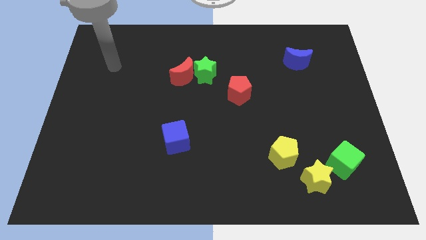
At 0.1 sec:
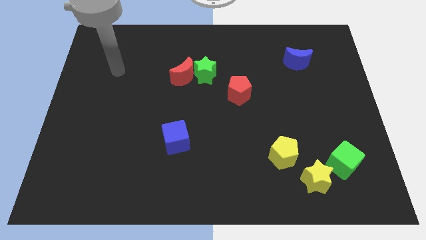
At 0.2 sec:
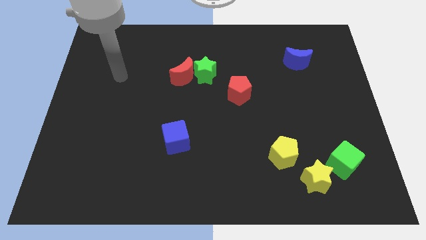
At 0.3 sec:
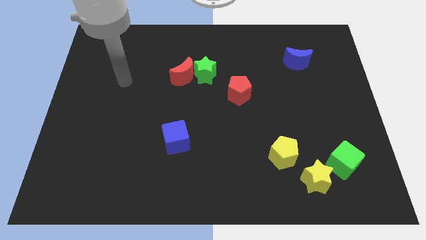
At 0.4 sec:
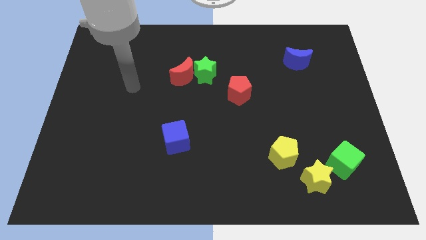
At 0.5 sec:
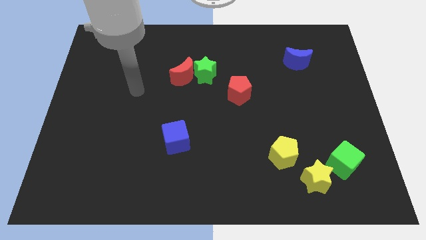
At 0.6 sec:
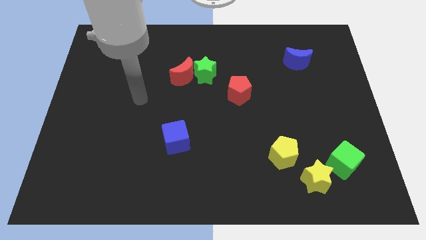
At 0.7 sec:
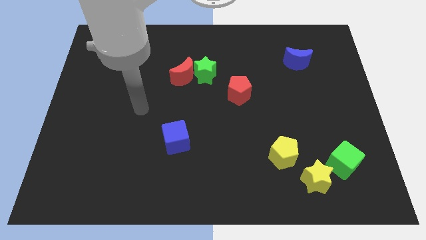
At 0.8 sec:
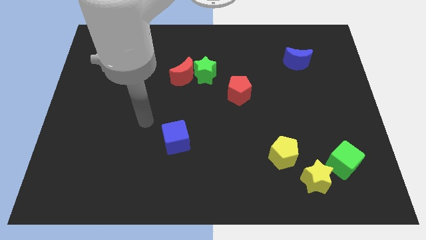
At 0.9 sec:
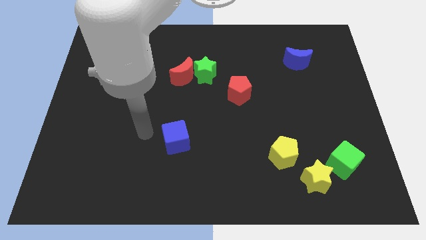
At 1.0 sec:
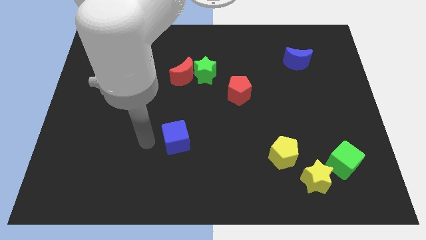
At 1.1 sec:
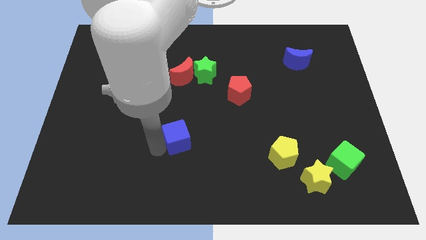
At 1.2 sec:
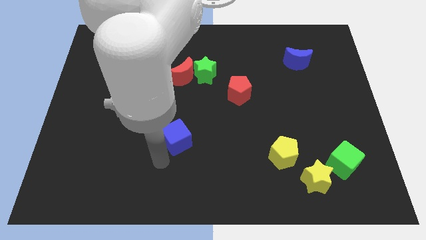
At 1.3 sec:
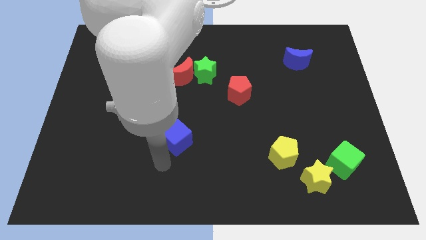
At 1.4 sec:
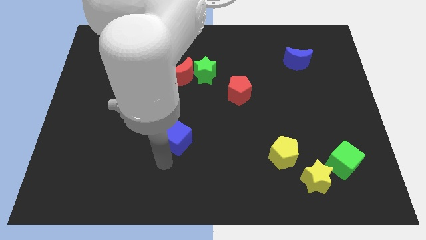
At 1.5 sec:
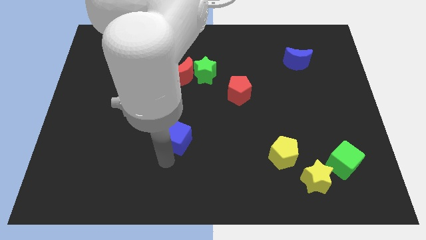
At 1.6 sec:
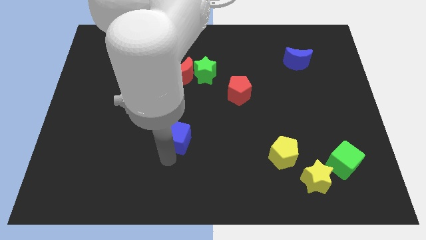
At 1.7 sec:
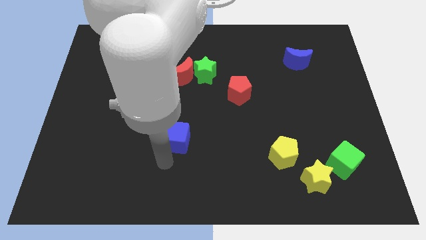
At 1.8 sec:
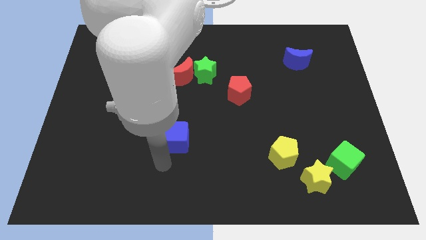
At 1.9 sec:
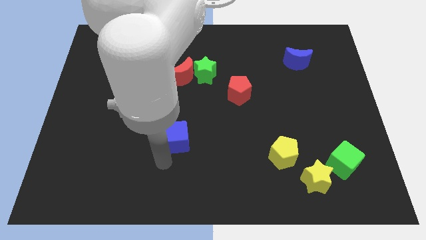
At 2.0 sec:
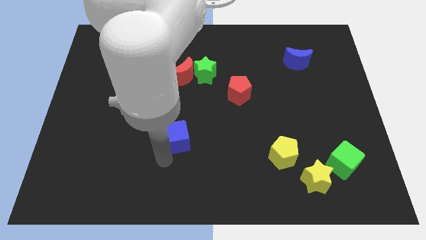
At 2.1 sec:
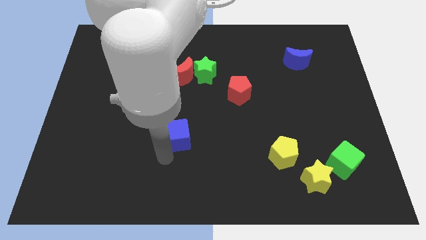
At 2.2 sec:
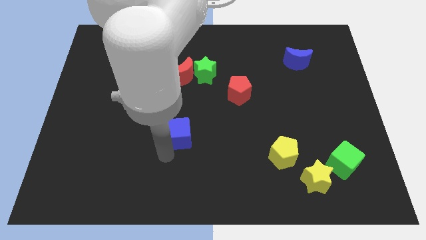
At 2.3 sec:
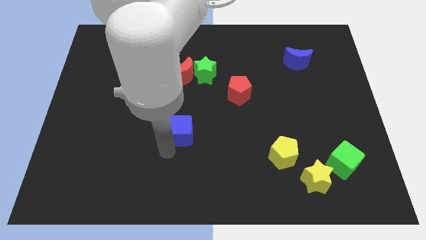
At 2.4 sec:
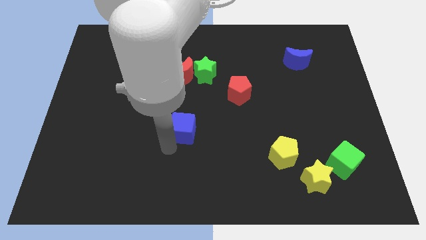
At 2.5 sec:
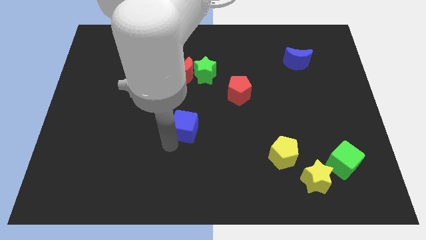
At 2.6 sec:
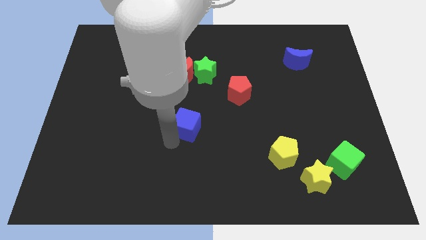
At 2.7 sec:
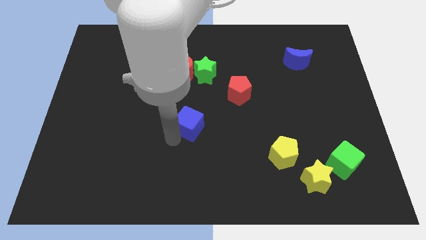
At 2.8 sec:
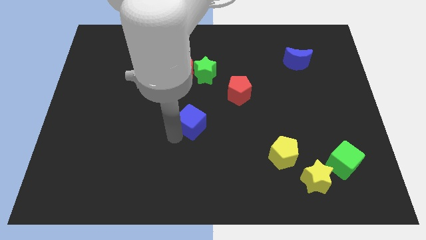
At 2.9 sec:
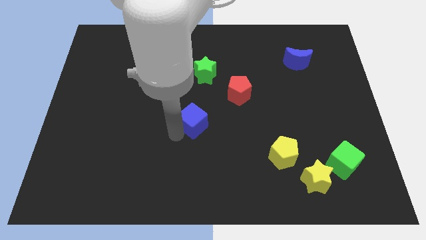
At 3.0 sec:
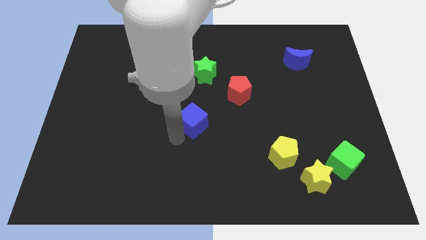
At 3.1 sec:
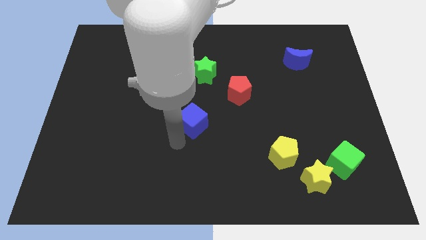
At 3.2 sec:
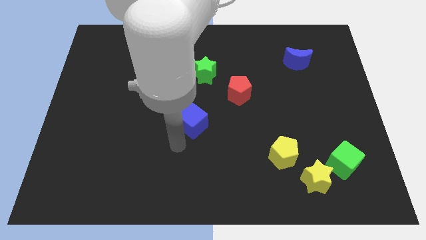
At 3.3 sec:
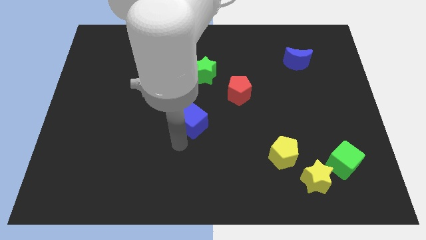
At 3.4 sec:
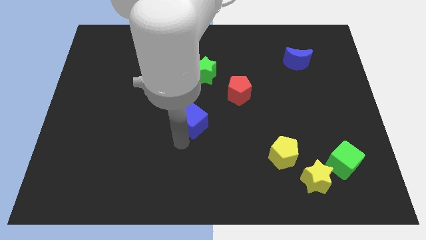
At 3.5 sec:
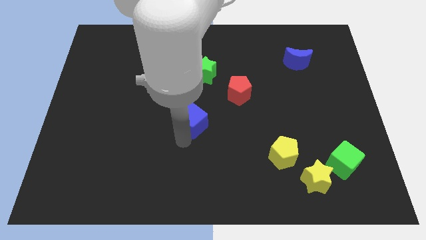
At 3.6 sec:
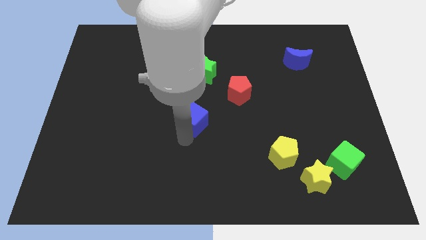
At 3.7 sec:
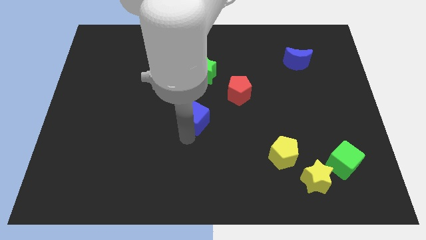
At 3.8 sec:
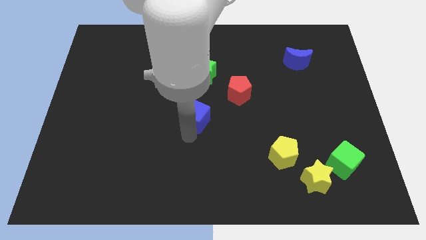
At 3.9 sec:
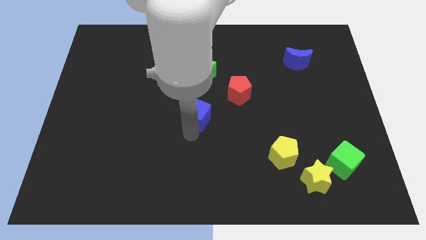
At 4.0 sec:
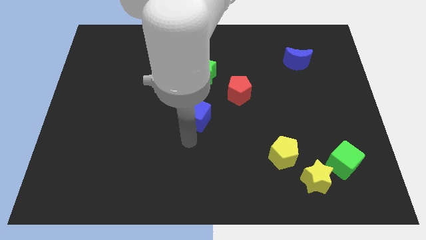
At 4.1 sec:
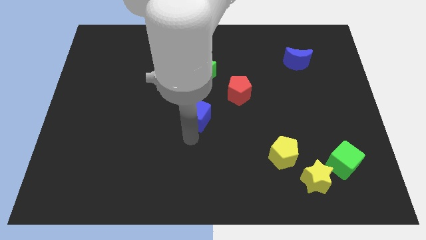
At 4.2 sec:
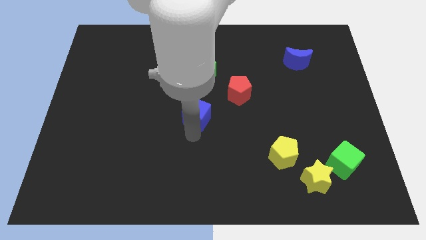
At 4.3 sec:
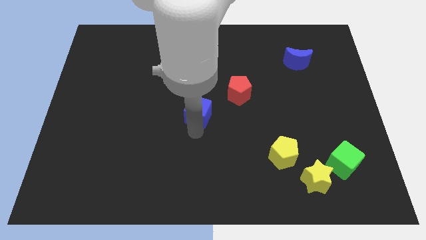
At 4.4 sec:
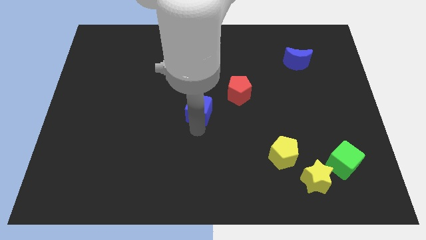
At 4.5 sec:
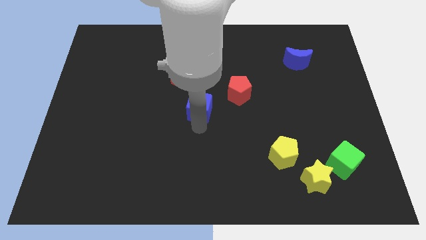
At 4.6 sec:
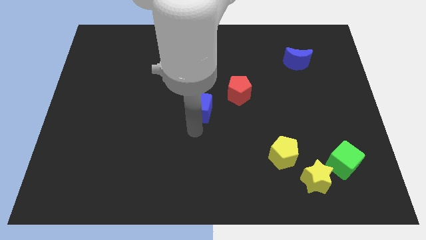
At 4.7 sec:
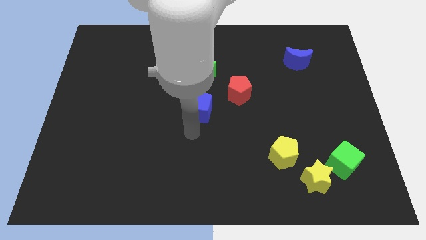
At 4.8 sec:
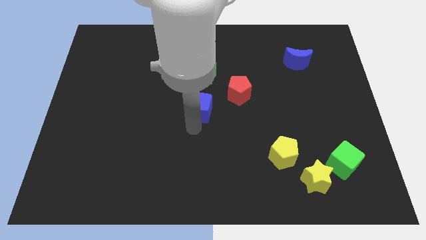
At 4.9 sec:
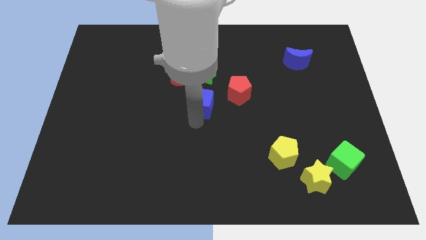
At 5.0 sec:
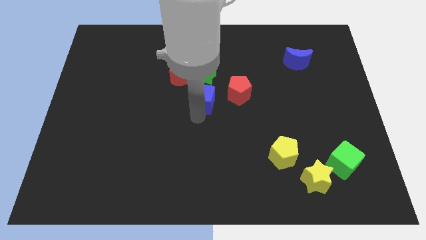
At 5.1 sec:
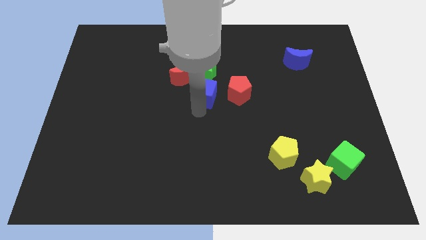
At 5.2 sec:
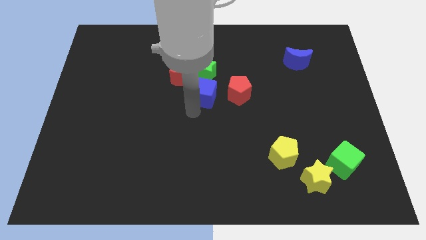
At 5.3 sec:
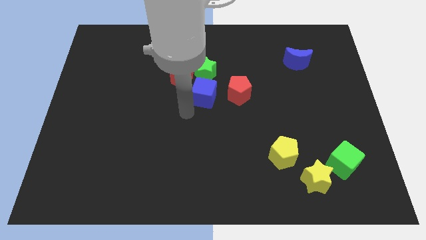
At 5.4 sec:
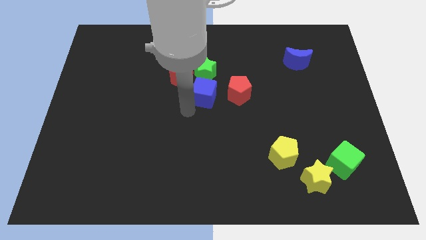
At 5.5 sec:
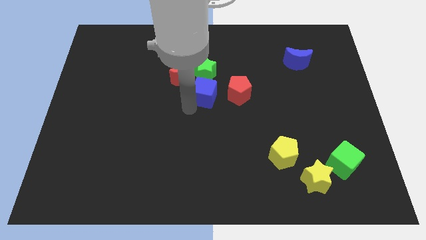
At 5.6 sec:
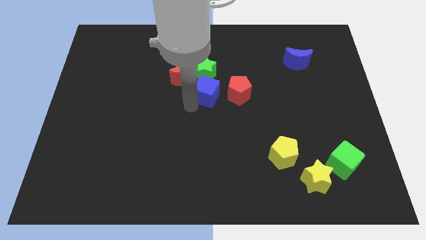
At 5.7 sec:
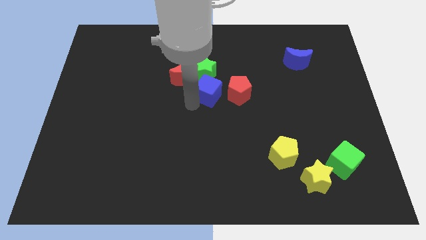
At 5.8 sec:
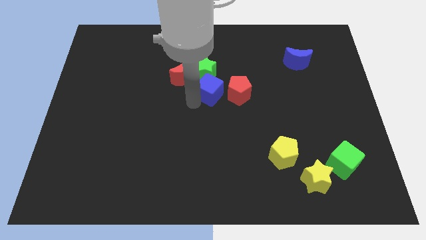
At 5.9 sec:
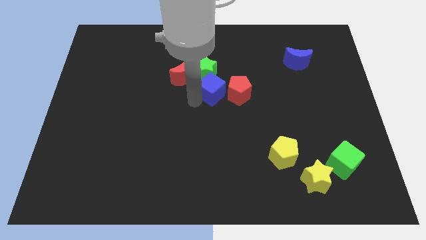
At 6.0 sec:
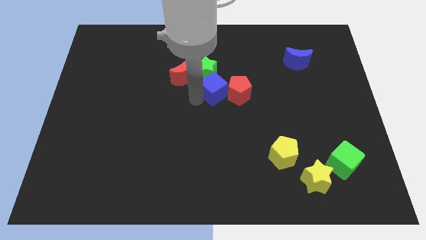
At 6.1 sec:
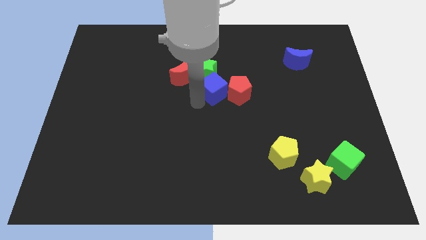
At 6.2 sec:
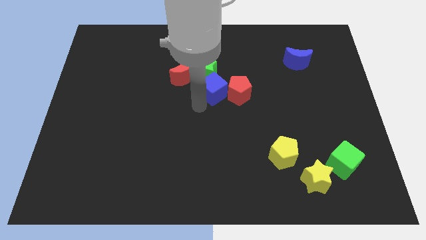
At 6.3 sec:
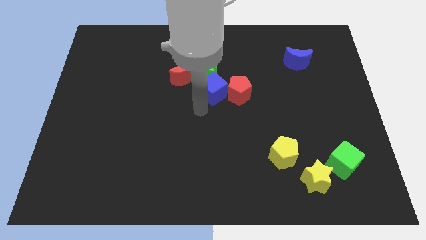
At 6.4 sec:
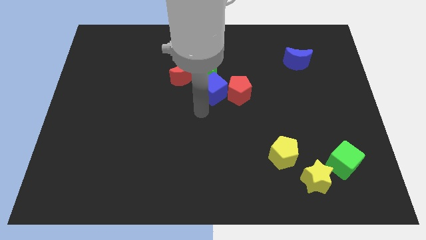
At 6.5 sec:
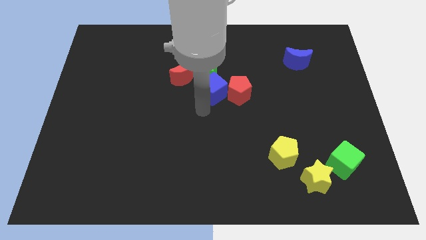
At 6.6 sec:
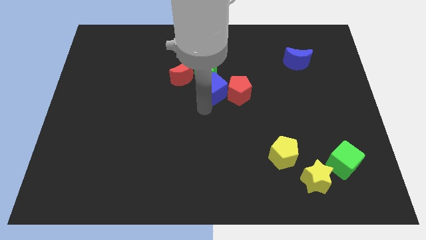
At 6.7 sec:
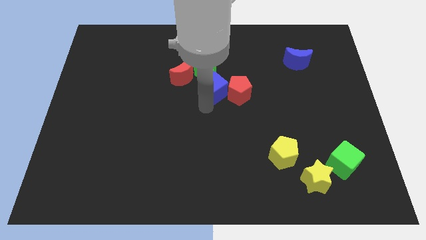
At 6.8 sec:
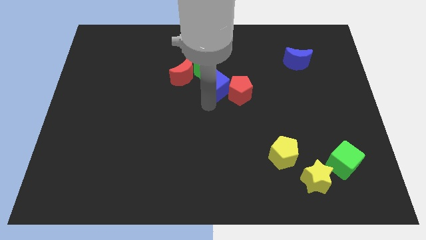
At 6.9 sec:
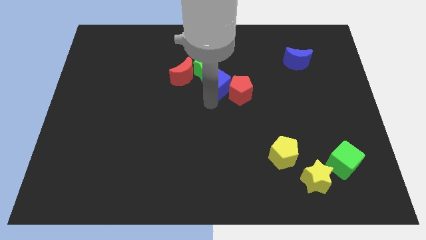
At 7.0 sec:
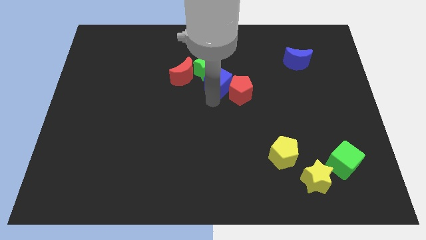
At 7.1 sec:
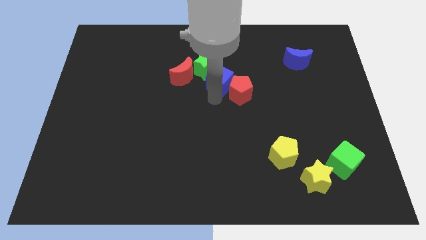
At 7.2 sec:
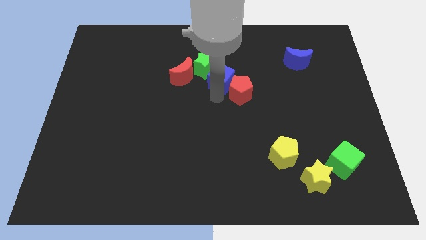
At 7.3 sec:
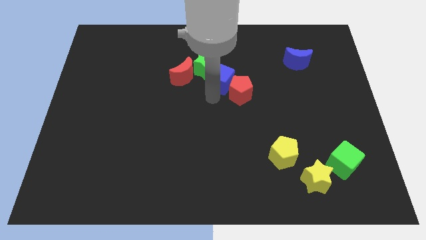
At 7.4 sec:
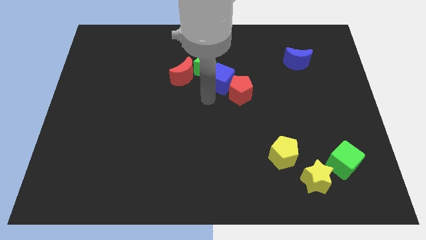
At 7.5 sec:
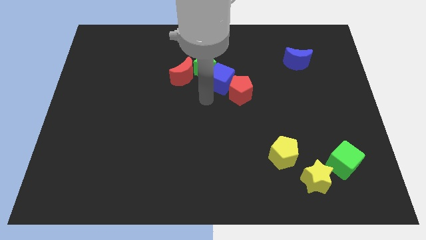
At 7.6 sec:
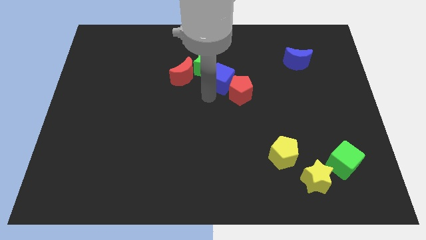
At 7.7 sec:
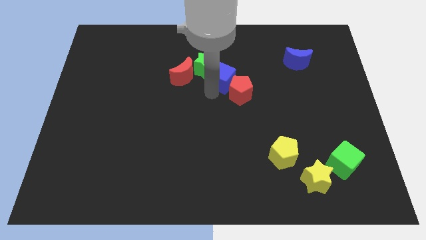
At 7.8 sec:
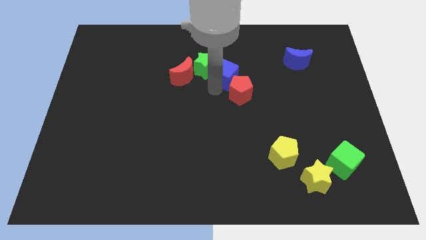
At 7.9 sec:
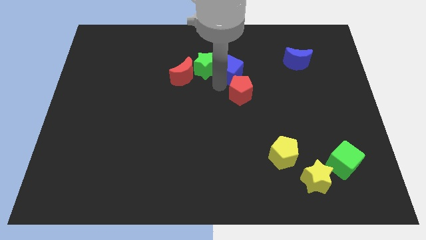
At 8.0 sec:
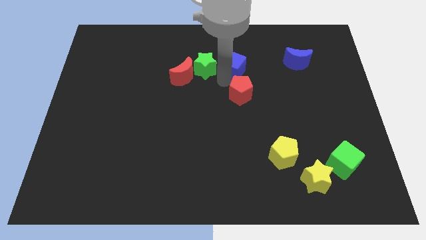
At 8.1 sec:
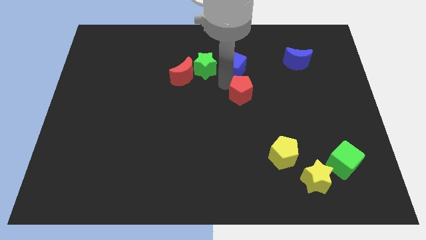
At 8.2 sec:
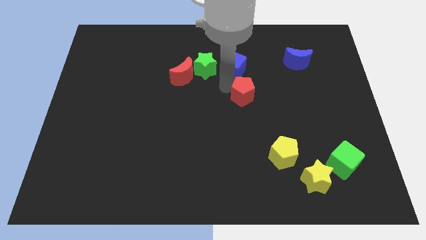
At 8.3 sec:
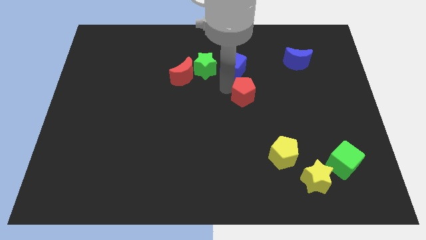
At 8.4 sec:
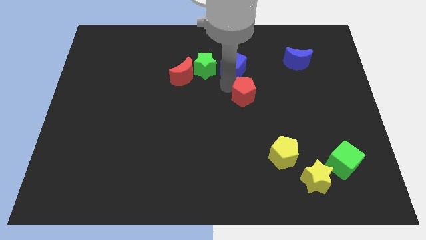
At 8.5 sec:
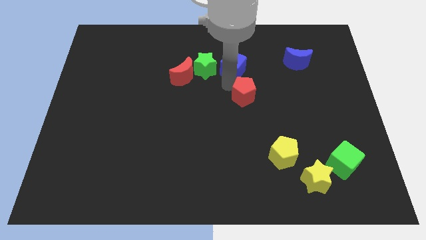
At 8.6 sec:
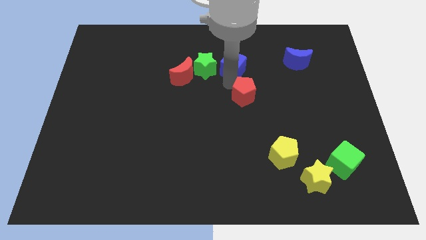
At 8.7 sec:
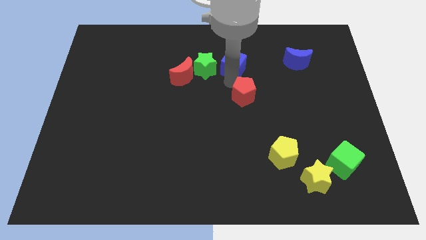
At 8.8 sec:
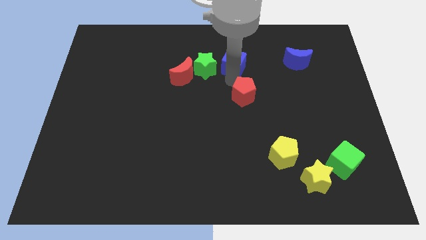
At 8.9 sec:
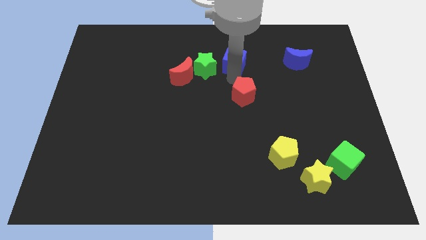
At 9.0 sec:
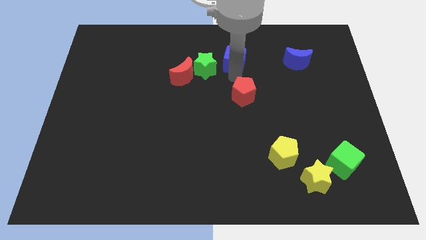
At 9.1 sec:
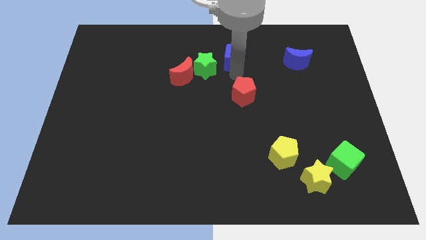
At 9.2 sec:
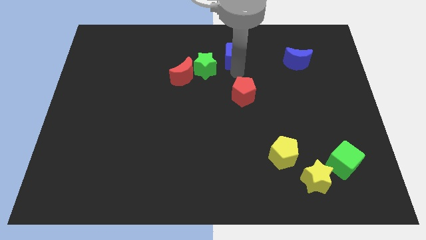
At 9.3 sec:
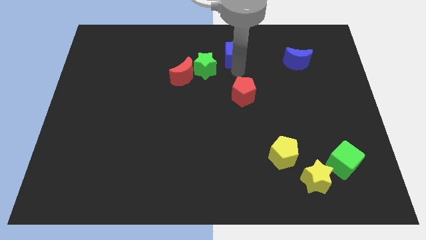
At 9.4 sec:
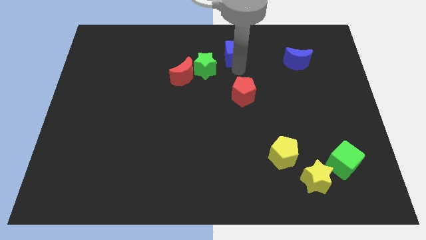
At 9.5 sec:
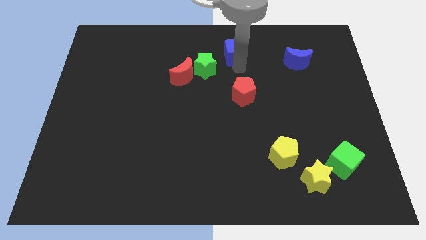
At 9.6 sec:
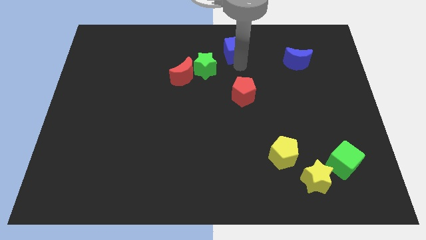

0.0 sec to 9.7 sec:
put the blue cube to the top
